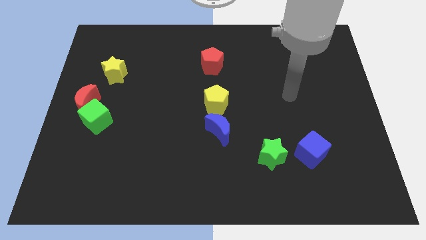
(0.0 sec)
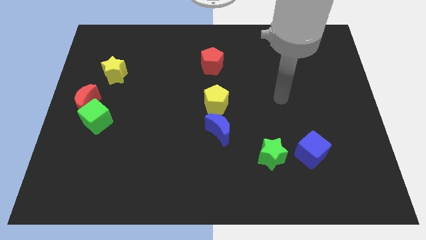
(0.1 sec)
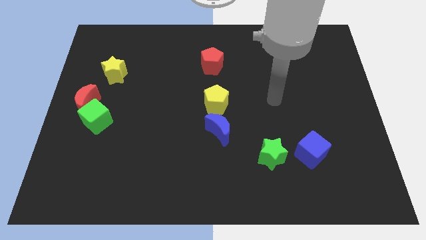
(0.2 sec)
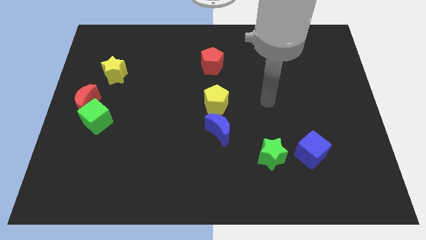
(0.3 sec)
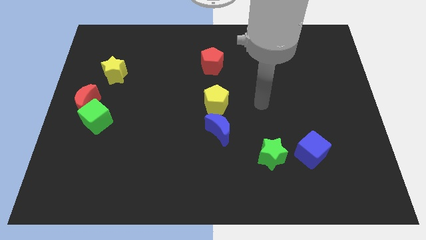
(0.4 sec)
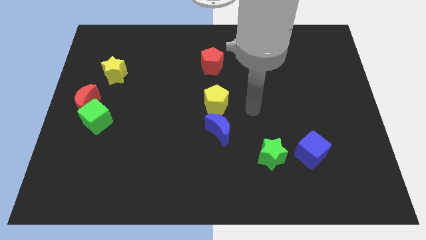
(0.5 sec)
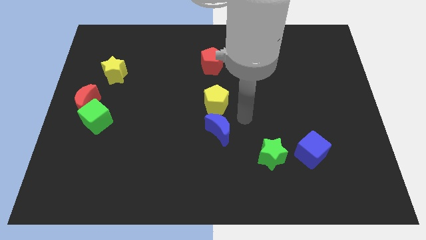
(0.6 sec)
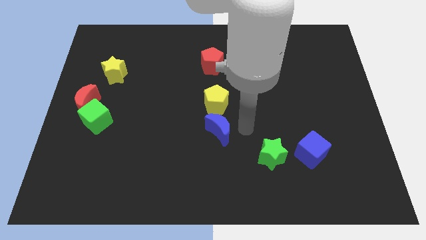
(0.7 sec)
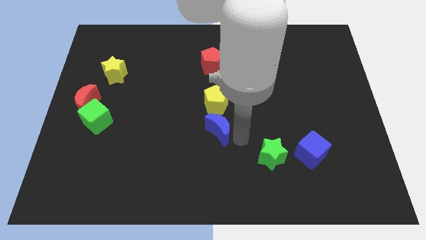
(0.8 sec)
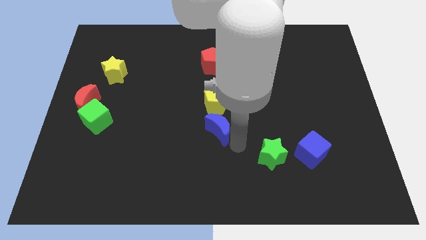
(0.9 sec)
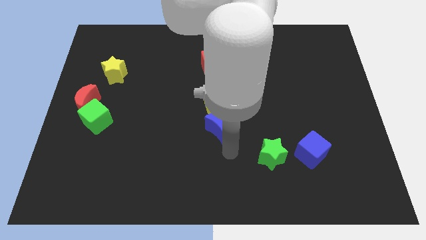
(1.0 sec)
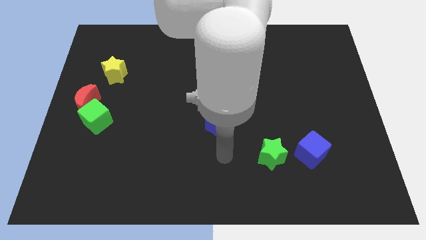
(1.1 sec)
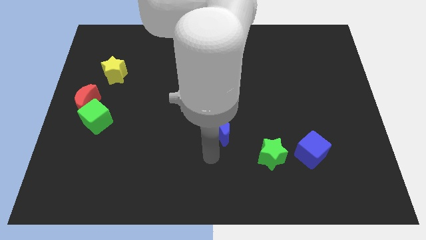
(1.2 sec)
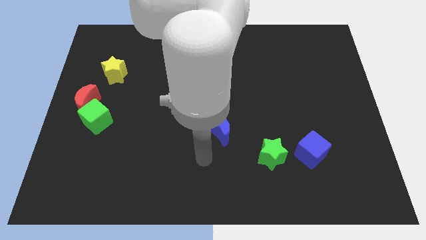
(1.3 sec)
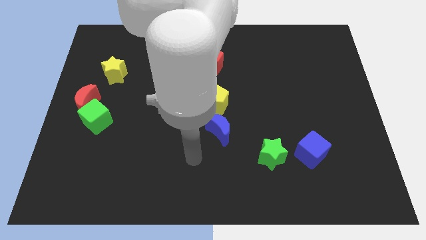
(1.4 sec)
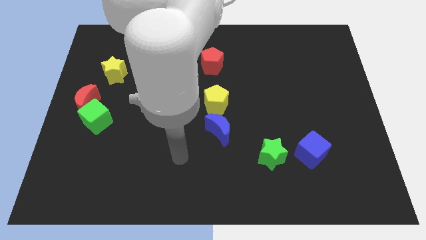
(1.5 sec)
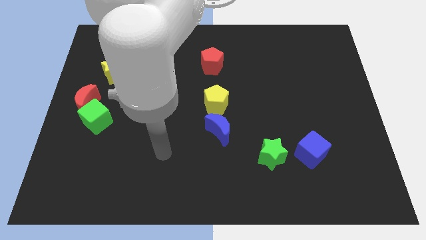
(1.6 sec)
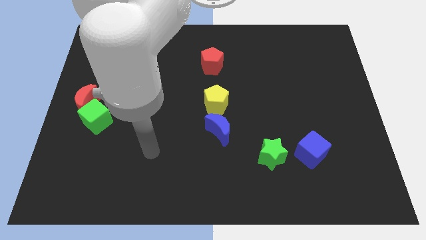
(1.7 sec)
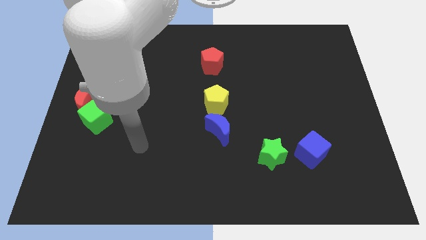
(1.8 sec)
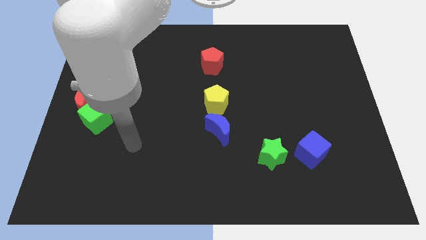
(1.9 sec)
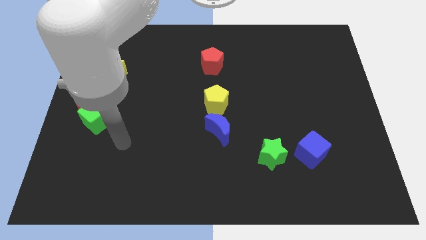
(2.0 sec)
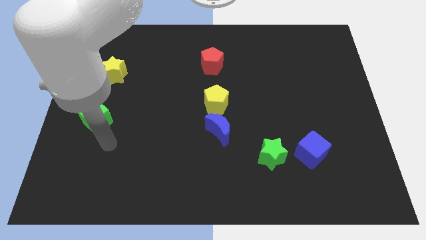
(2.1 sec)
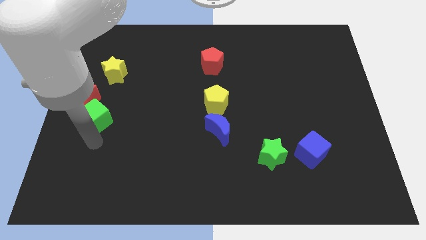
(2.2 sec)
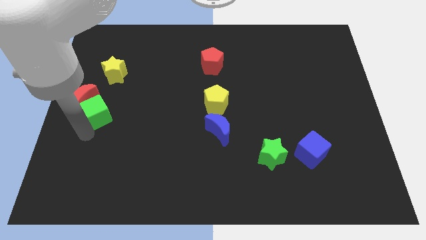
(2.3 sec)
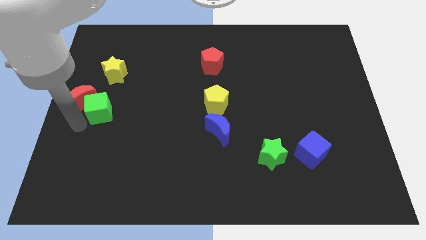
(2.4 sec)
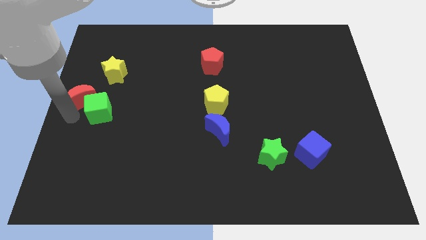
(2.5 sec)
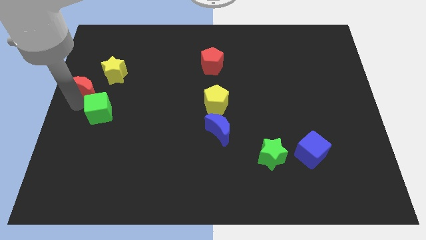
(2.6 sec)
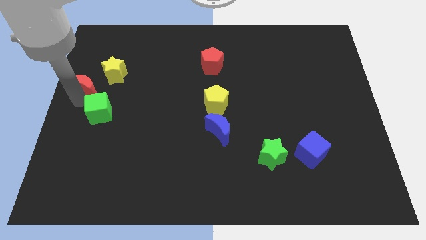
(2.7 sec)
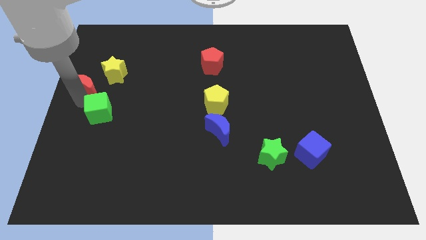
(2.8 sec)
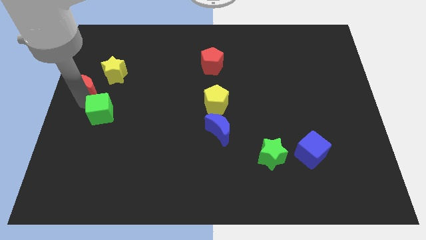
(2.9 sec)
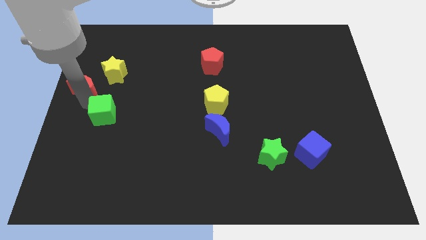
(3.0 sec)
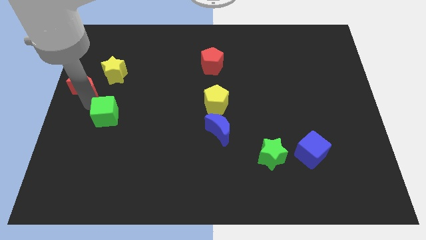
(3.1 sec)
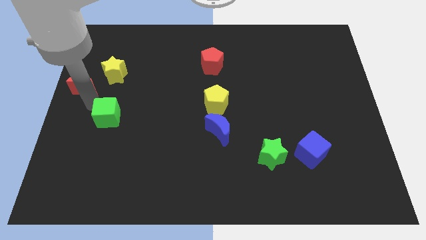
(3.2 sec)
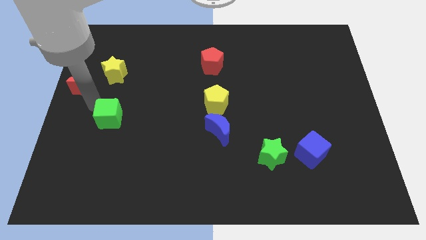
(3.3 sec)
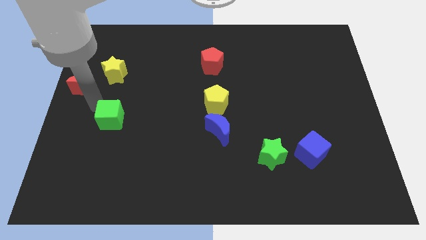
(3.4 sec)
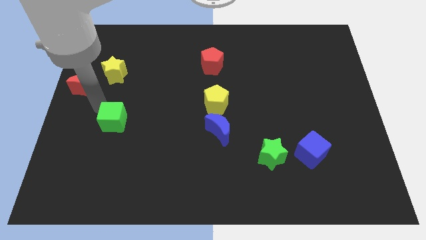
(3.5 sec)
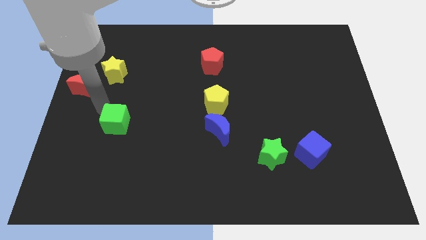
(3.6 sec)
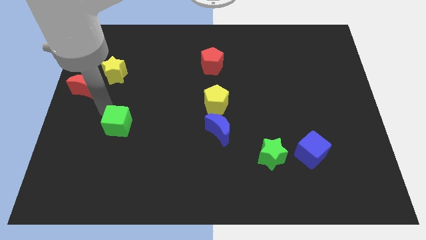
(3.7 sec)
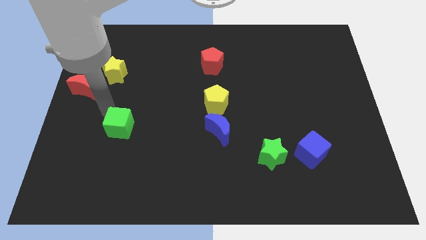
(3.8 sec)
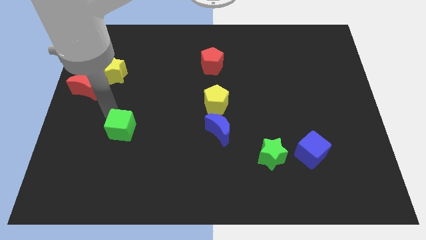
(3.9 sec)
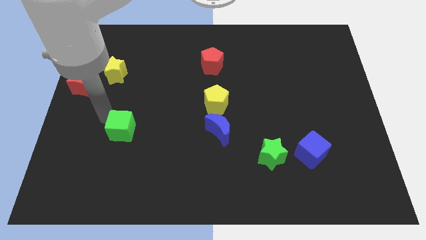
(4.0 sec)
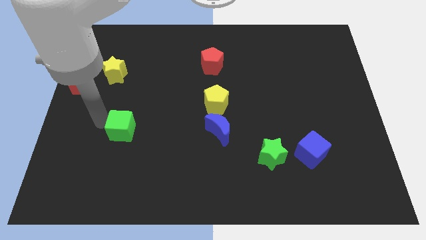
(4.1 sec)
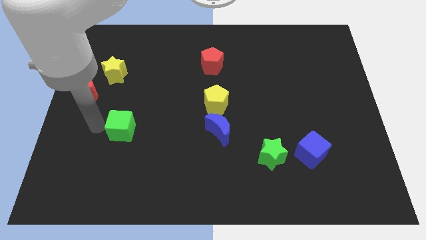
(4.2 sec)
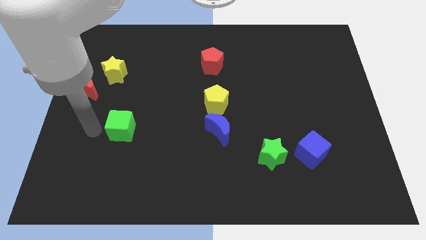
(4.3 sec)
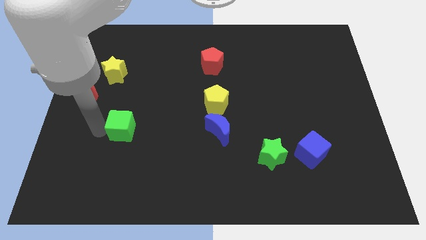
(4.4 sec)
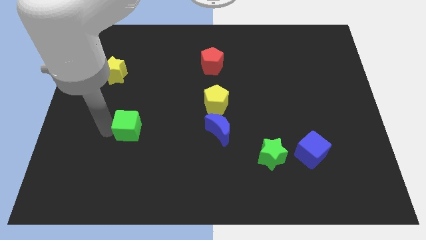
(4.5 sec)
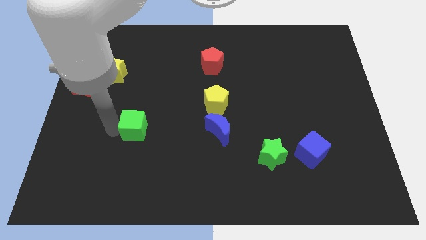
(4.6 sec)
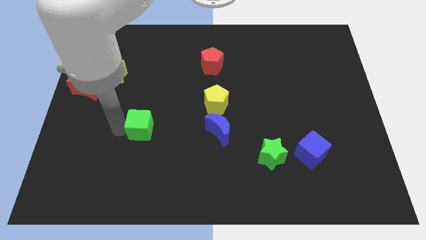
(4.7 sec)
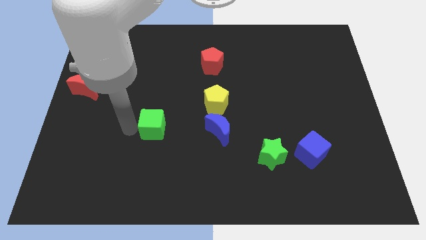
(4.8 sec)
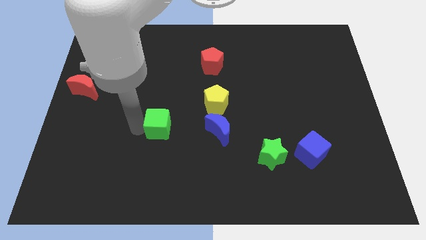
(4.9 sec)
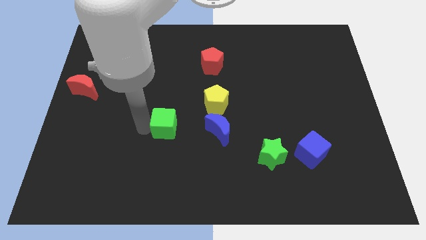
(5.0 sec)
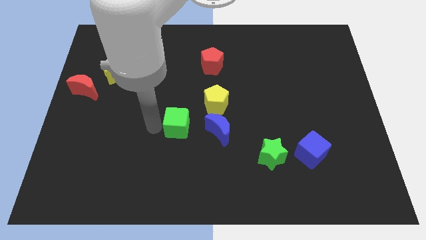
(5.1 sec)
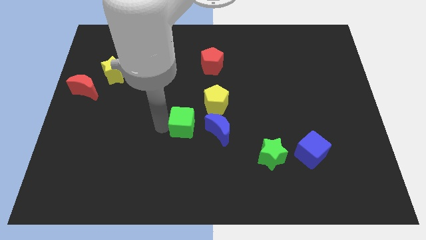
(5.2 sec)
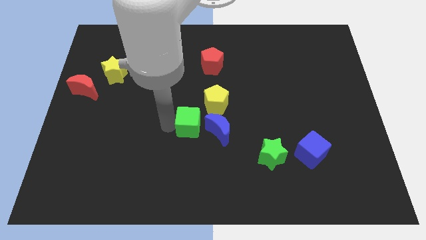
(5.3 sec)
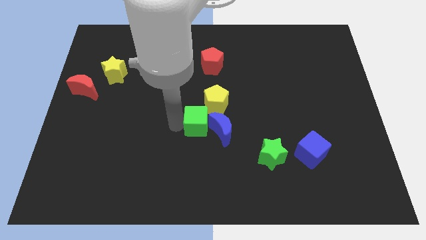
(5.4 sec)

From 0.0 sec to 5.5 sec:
slide the green cube close to the blue moon

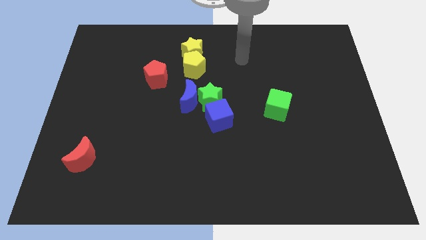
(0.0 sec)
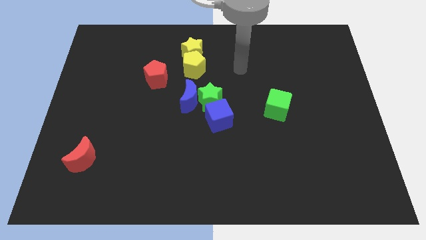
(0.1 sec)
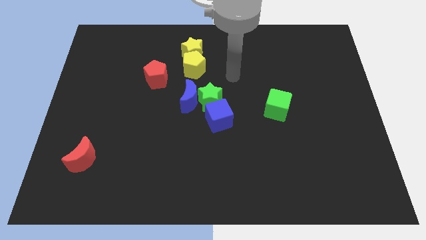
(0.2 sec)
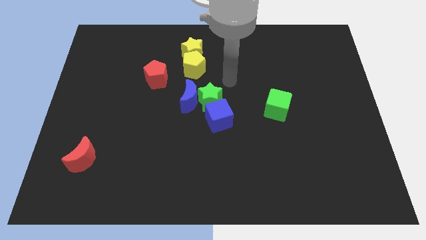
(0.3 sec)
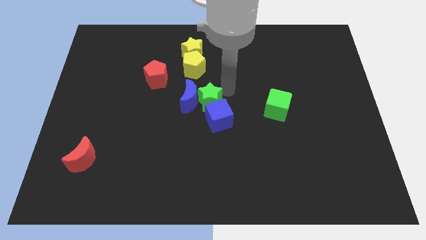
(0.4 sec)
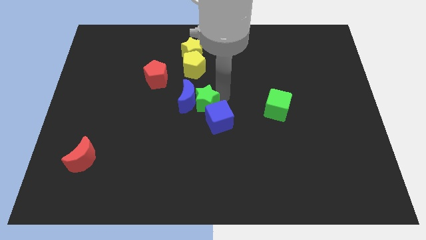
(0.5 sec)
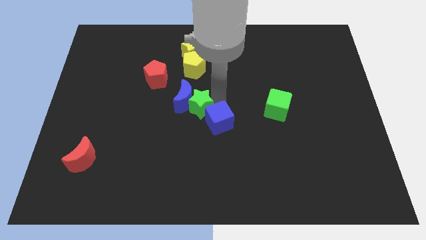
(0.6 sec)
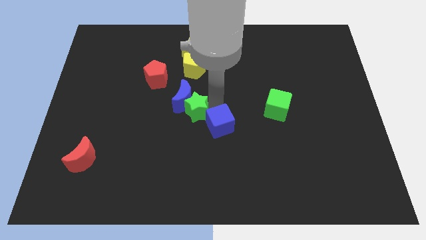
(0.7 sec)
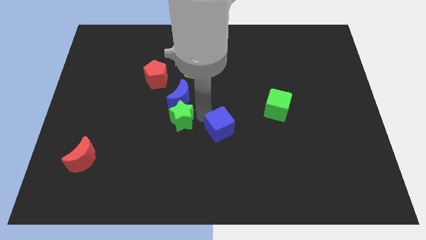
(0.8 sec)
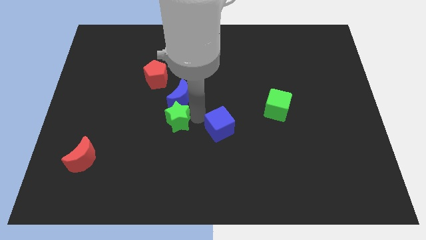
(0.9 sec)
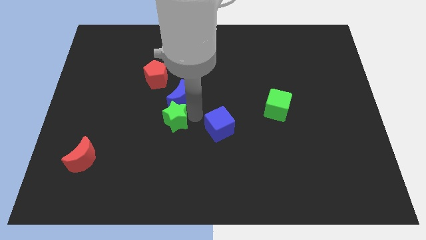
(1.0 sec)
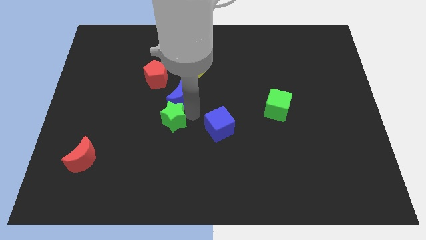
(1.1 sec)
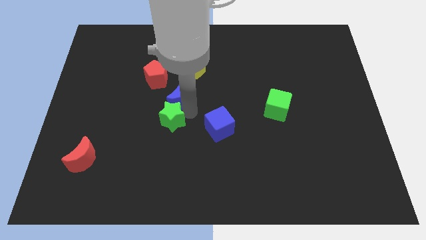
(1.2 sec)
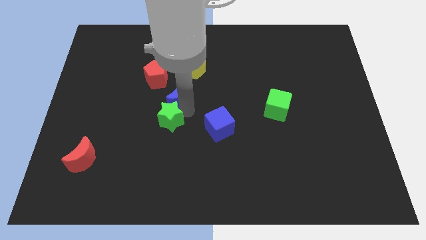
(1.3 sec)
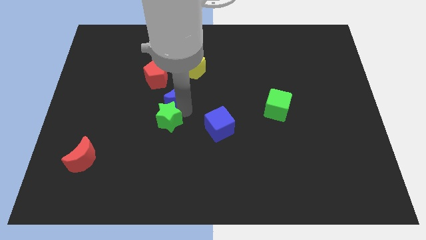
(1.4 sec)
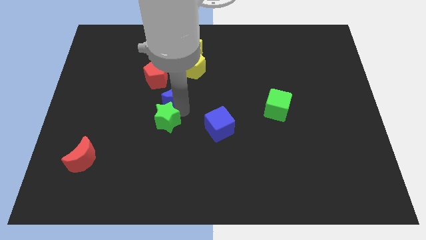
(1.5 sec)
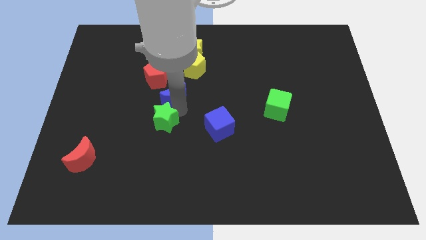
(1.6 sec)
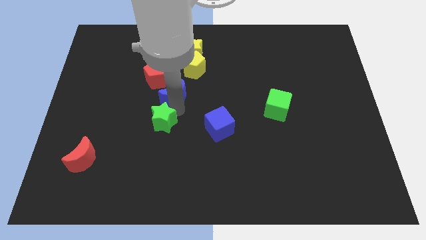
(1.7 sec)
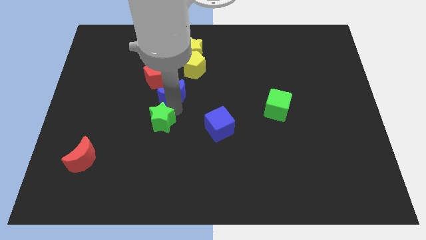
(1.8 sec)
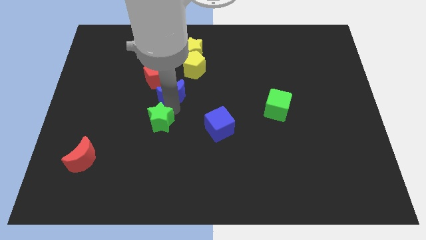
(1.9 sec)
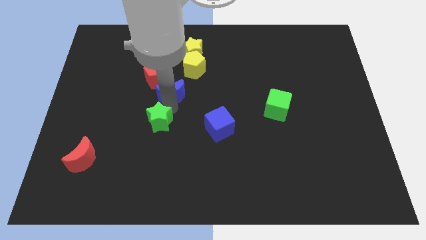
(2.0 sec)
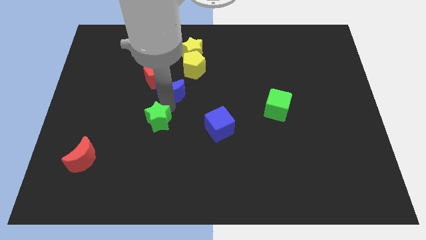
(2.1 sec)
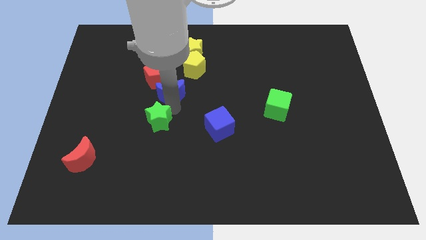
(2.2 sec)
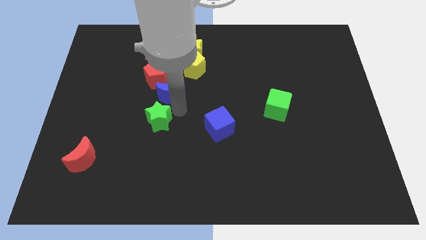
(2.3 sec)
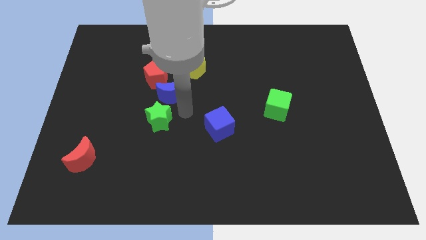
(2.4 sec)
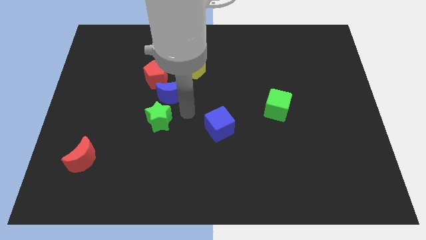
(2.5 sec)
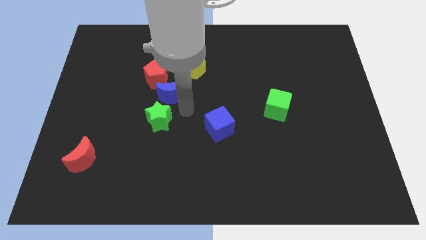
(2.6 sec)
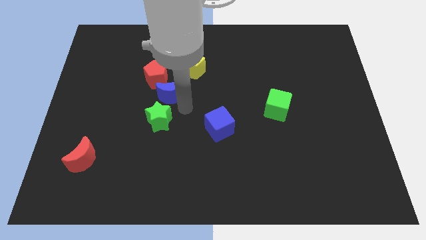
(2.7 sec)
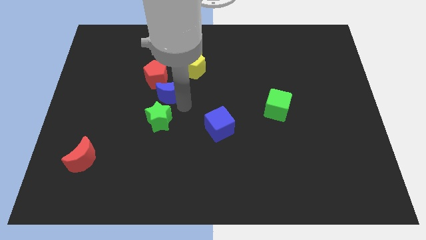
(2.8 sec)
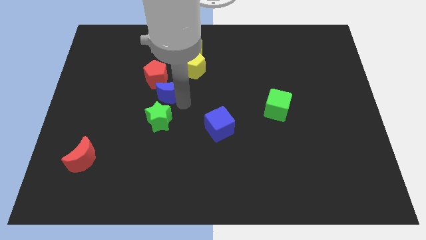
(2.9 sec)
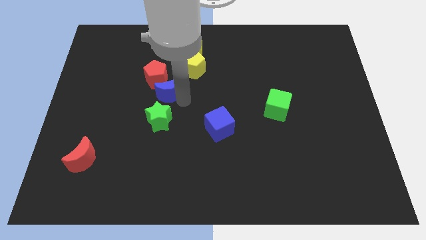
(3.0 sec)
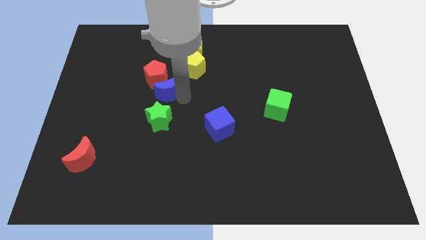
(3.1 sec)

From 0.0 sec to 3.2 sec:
push the blue moon to the red pentagon
